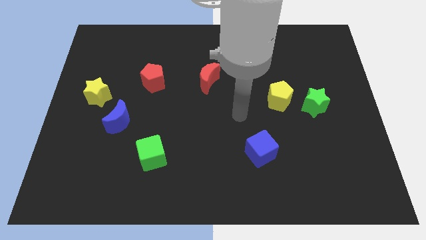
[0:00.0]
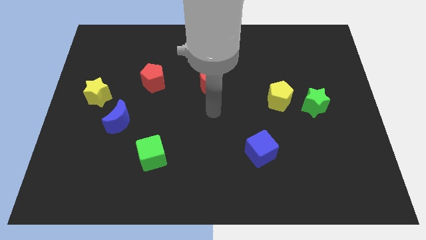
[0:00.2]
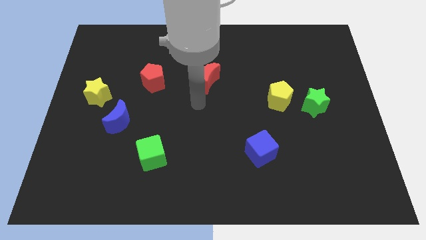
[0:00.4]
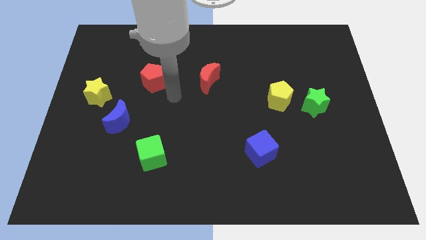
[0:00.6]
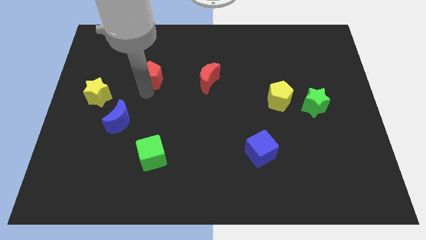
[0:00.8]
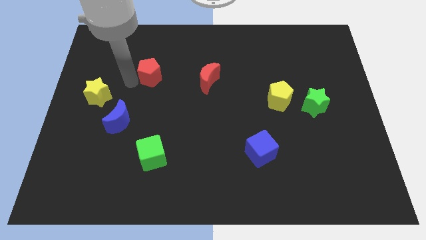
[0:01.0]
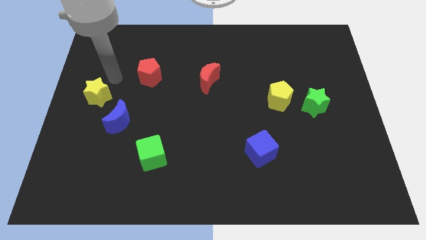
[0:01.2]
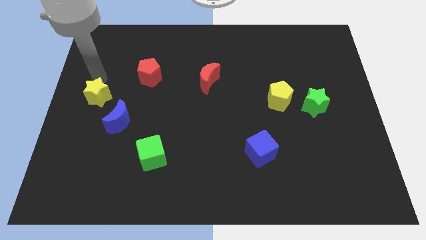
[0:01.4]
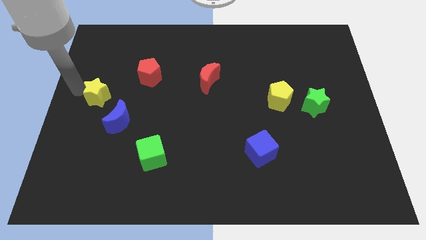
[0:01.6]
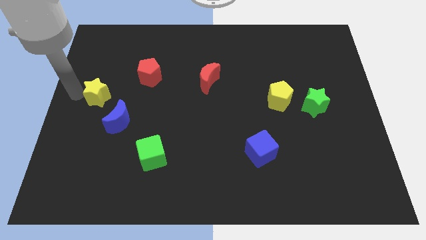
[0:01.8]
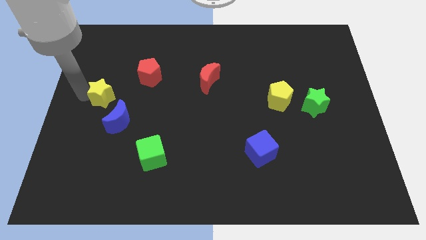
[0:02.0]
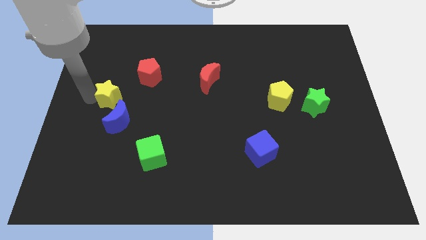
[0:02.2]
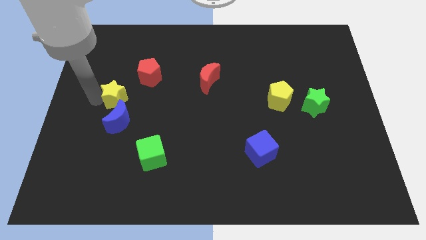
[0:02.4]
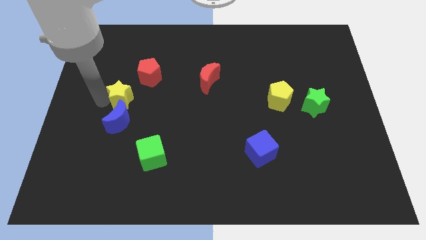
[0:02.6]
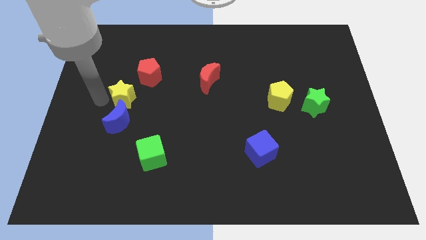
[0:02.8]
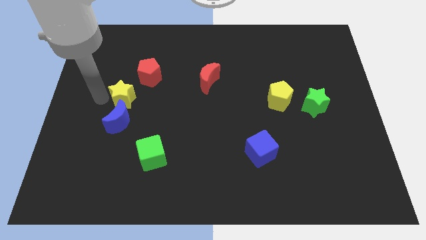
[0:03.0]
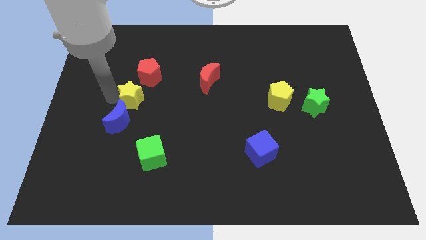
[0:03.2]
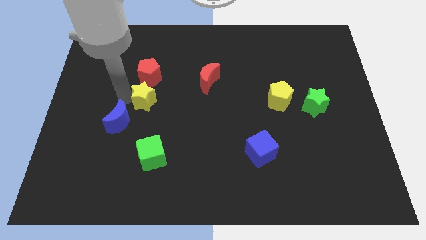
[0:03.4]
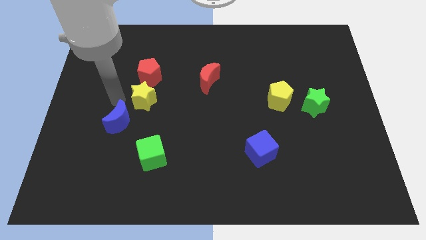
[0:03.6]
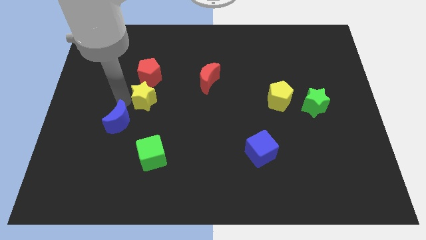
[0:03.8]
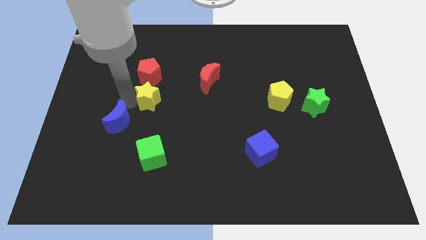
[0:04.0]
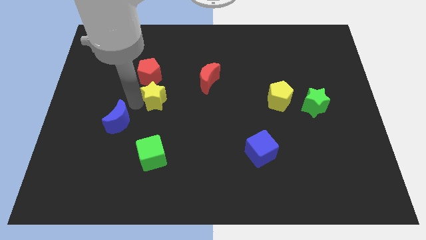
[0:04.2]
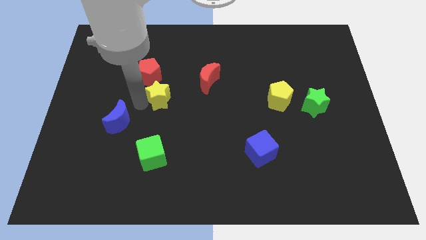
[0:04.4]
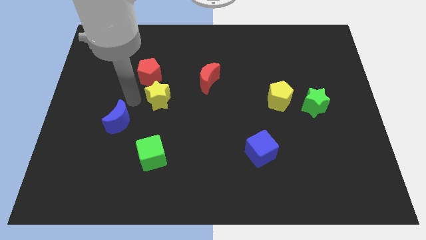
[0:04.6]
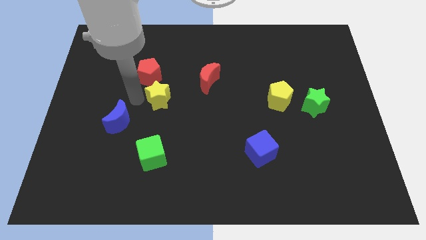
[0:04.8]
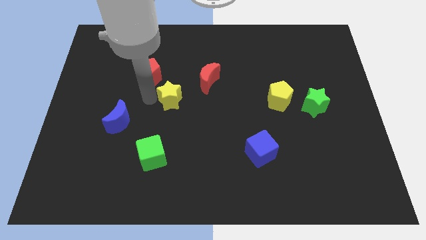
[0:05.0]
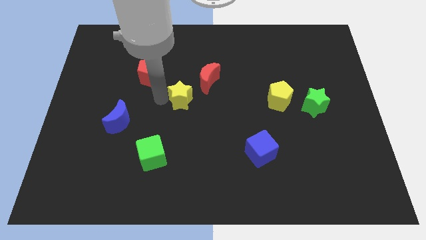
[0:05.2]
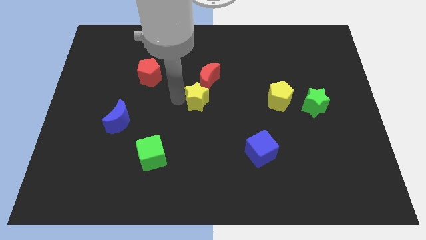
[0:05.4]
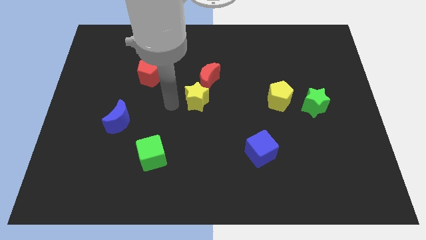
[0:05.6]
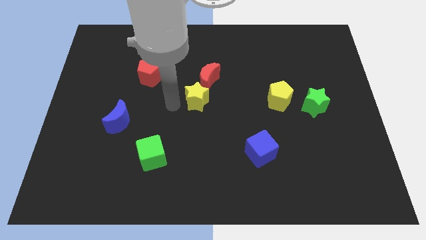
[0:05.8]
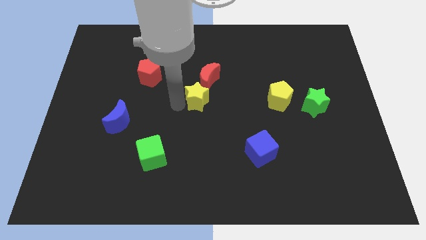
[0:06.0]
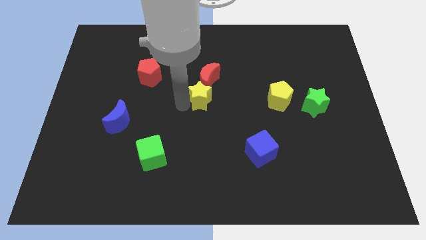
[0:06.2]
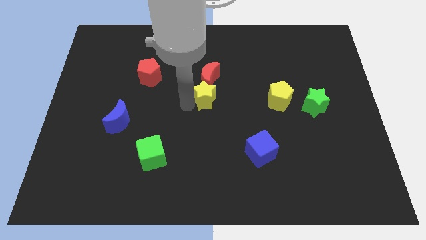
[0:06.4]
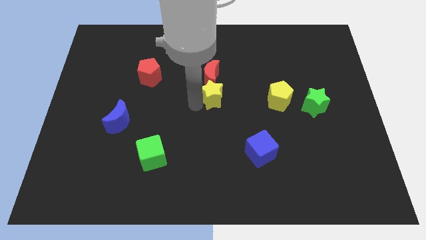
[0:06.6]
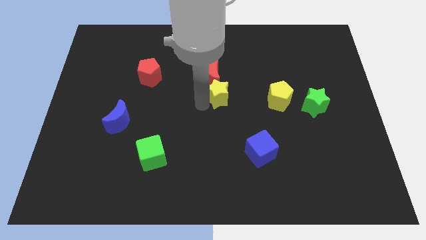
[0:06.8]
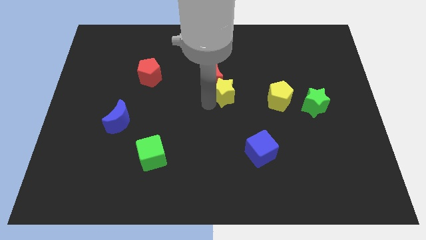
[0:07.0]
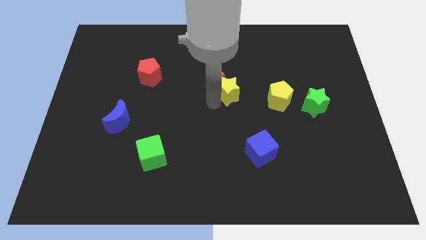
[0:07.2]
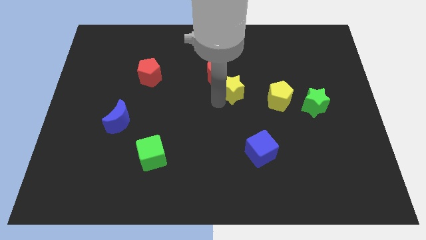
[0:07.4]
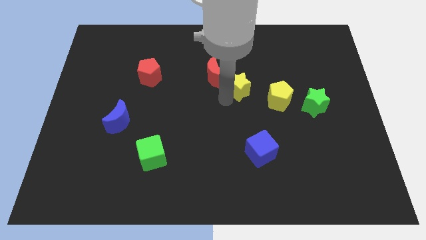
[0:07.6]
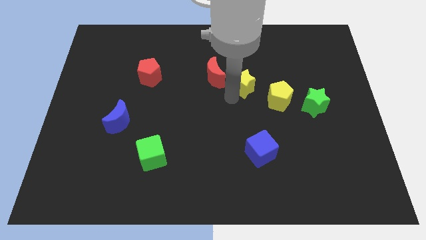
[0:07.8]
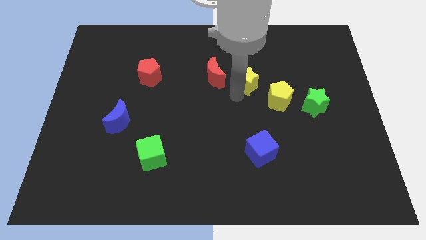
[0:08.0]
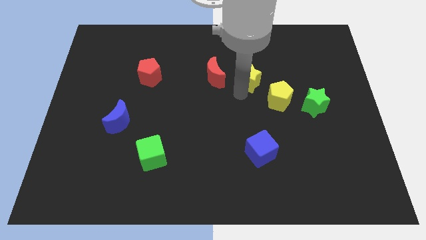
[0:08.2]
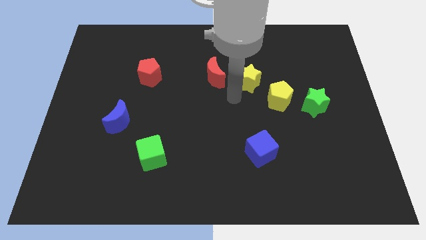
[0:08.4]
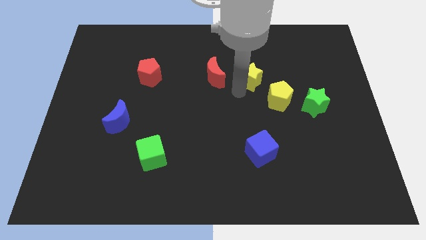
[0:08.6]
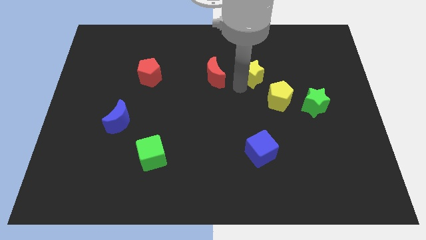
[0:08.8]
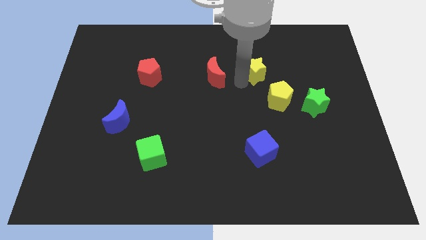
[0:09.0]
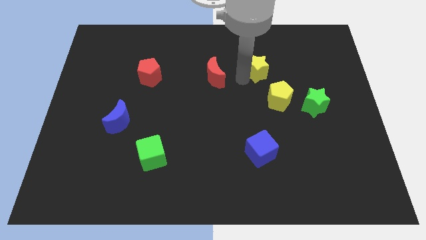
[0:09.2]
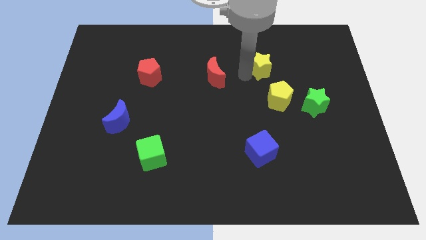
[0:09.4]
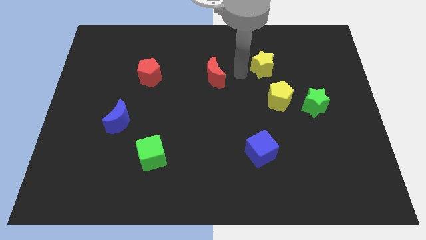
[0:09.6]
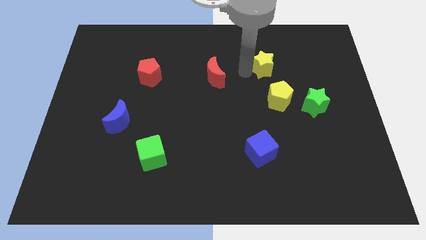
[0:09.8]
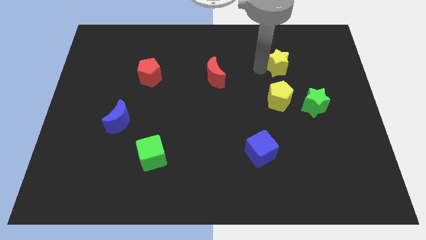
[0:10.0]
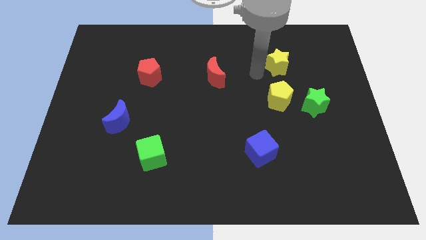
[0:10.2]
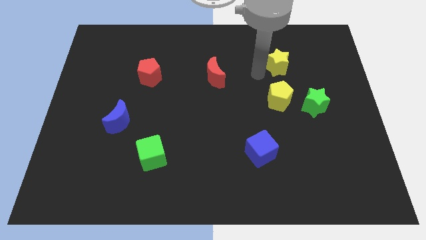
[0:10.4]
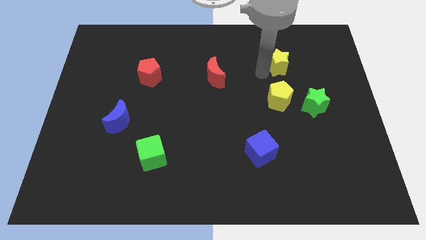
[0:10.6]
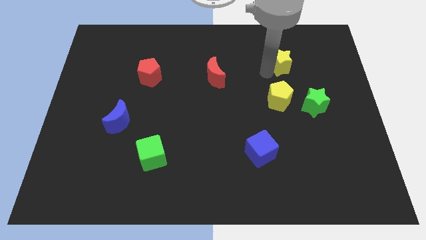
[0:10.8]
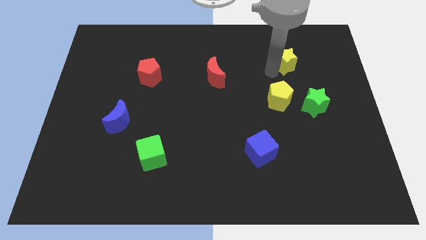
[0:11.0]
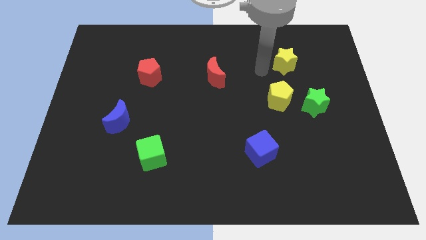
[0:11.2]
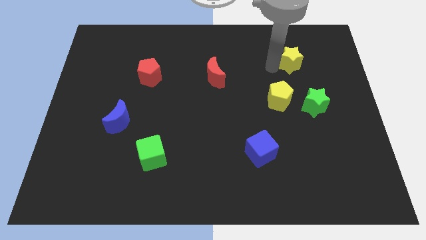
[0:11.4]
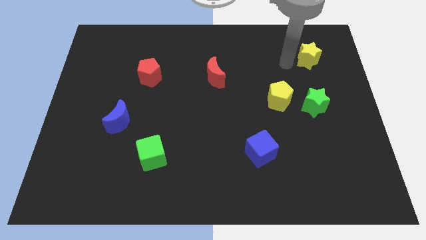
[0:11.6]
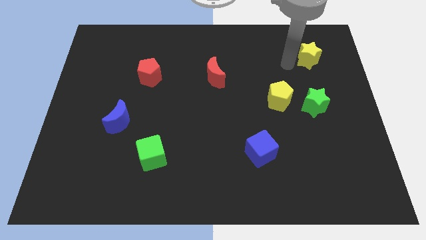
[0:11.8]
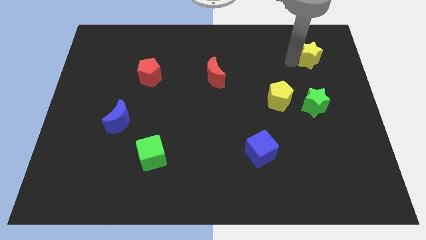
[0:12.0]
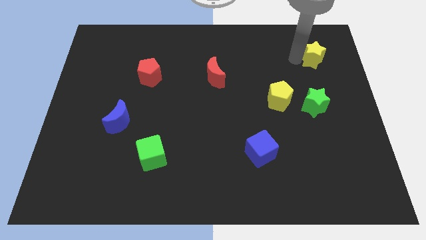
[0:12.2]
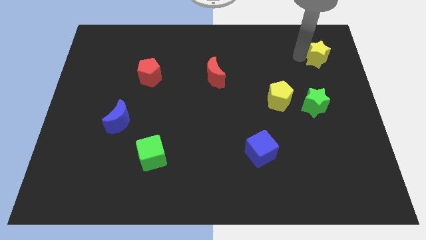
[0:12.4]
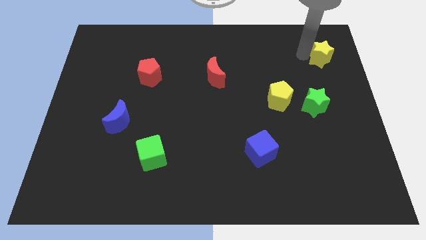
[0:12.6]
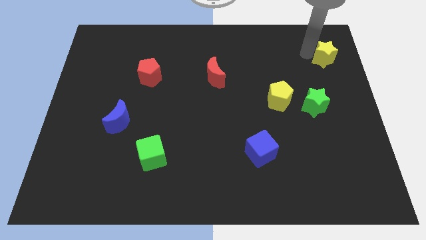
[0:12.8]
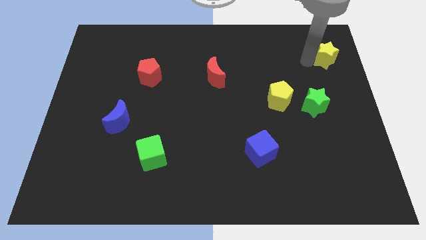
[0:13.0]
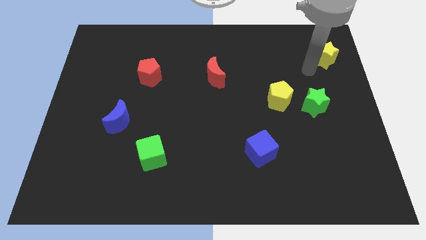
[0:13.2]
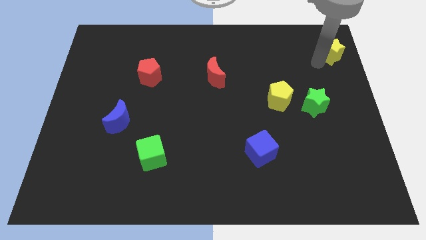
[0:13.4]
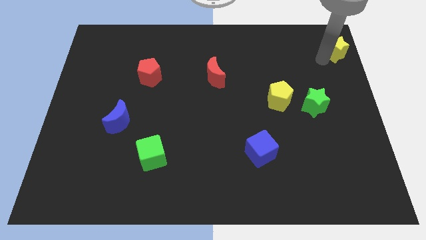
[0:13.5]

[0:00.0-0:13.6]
push the yellow star to the top right of the board
